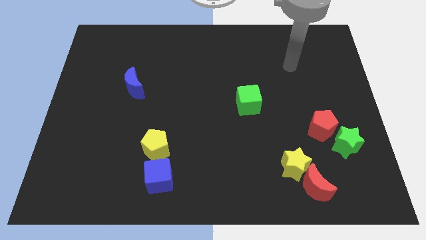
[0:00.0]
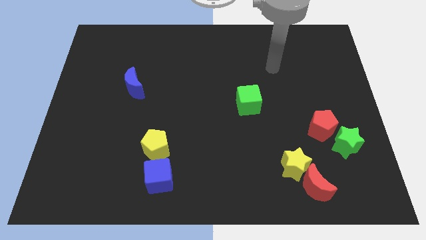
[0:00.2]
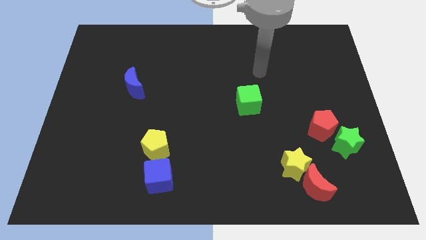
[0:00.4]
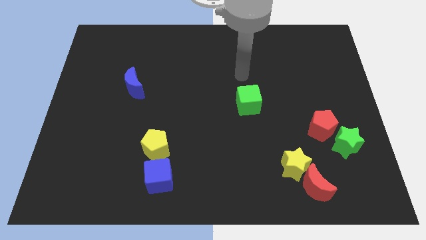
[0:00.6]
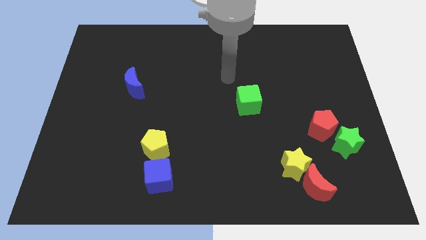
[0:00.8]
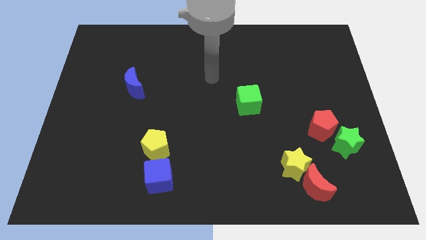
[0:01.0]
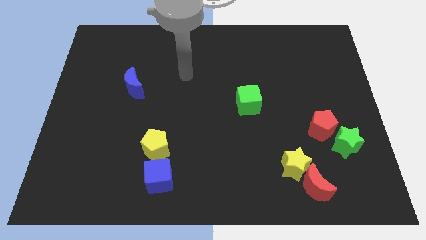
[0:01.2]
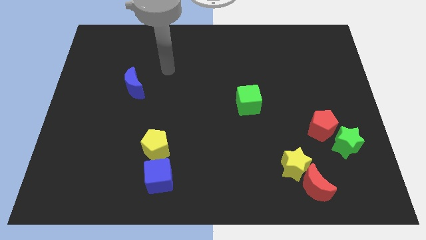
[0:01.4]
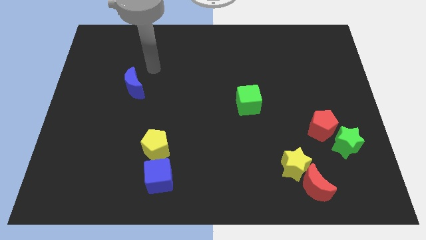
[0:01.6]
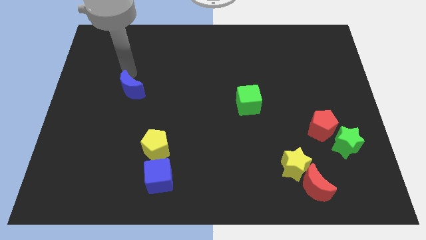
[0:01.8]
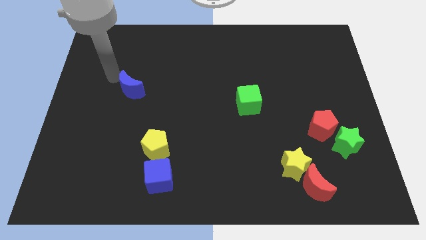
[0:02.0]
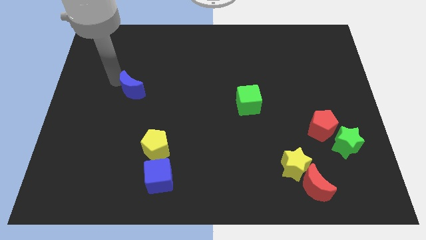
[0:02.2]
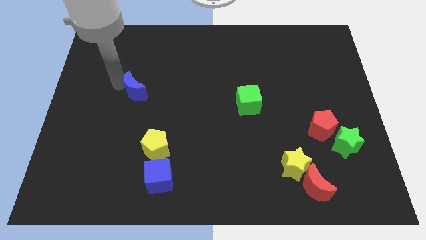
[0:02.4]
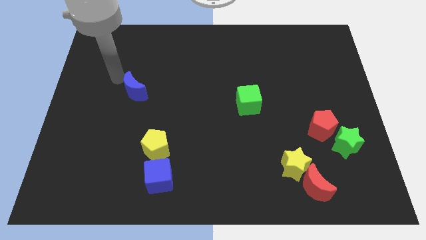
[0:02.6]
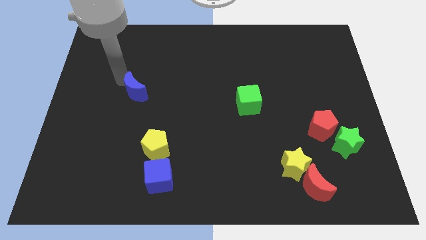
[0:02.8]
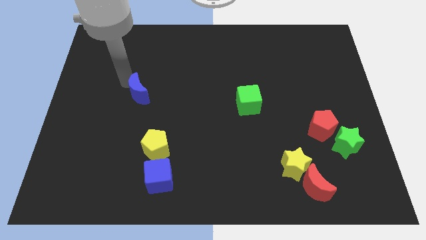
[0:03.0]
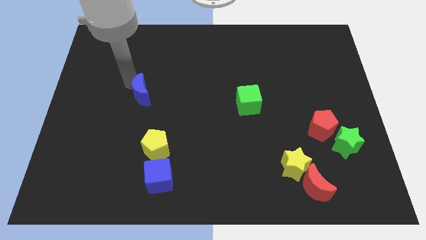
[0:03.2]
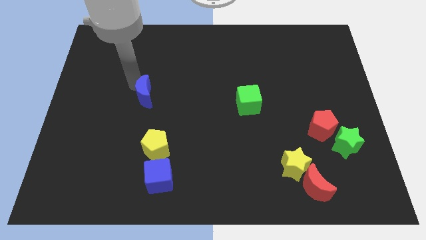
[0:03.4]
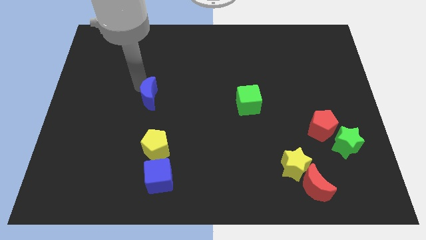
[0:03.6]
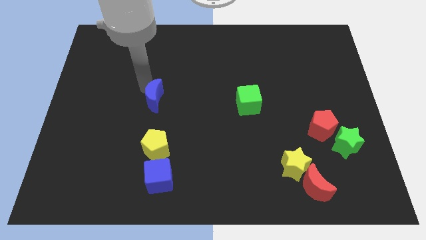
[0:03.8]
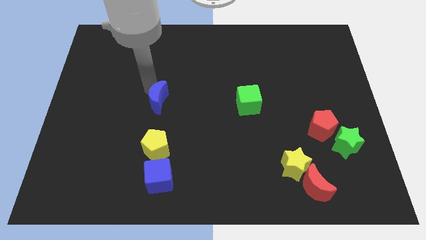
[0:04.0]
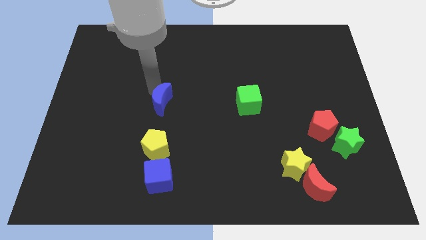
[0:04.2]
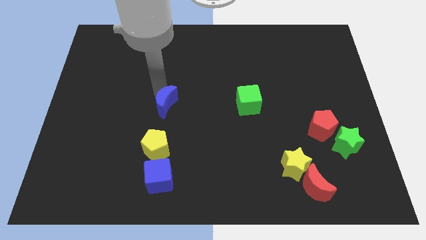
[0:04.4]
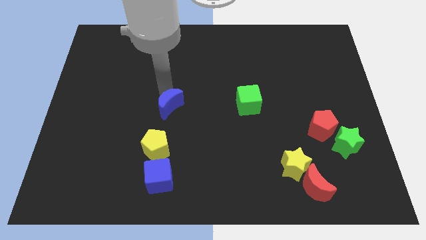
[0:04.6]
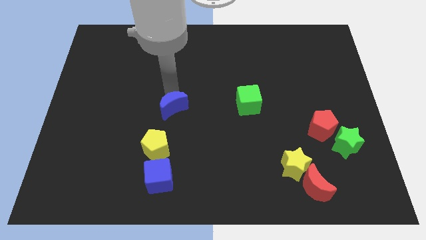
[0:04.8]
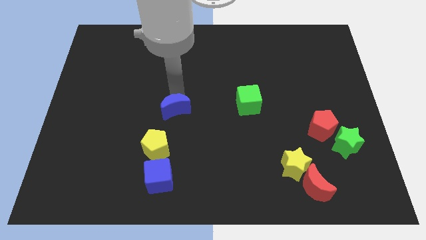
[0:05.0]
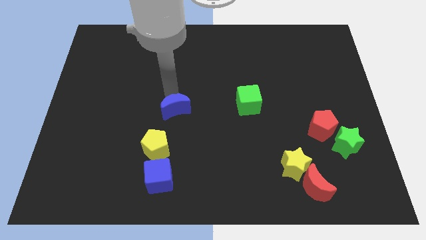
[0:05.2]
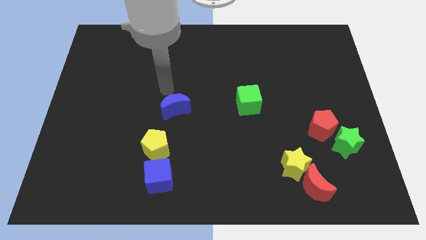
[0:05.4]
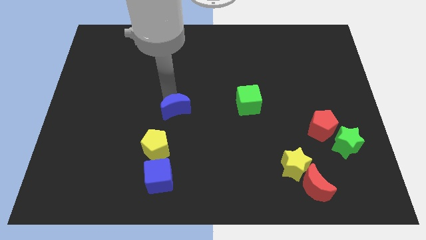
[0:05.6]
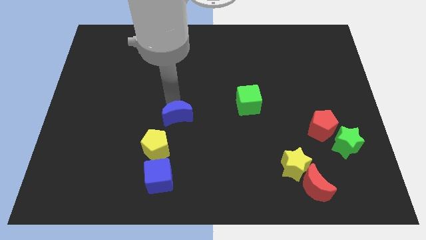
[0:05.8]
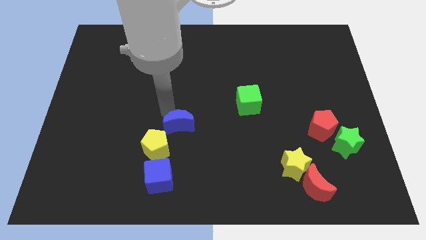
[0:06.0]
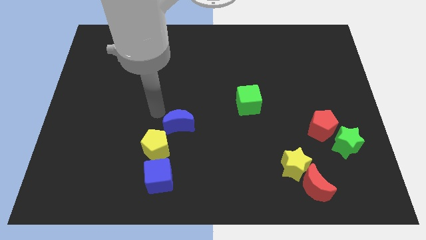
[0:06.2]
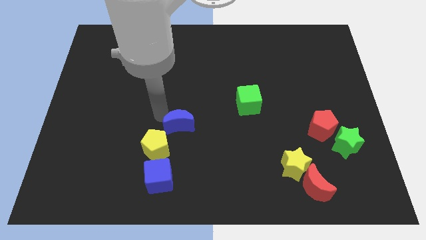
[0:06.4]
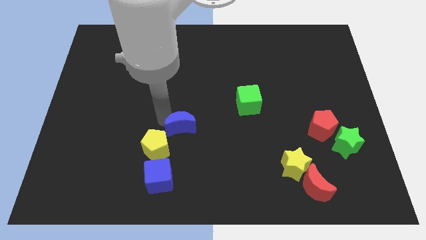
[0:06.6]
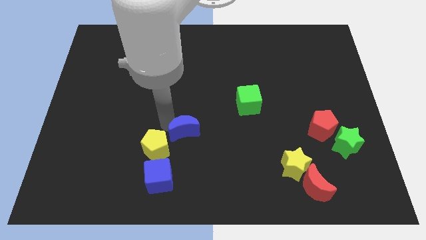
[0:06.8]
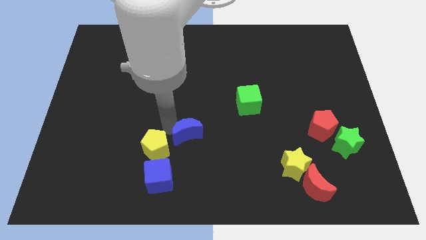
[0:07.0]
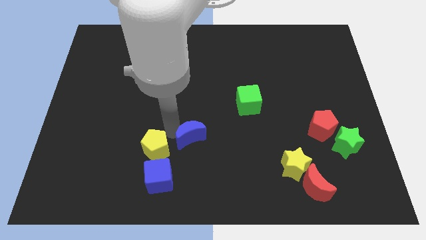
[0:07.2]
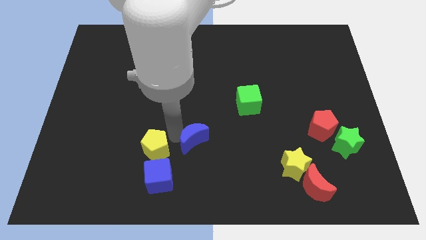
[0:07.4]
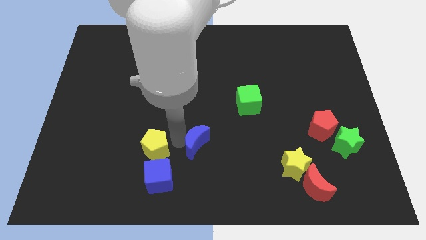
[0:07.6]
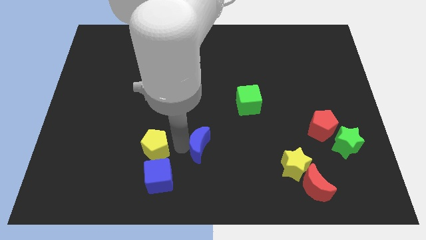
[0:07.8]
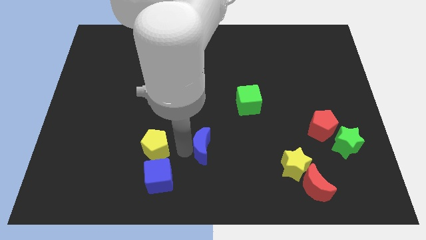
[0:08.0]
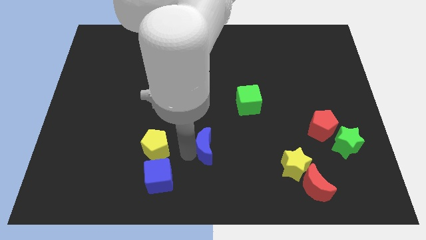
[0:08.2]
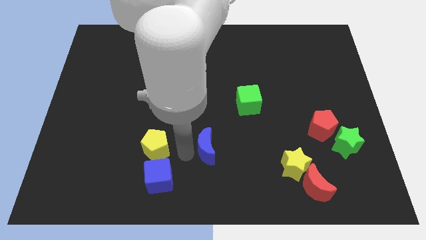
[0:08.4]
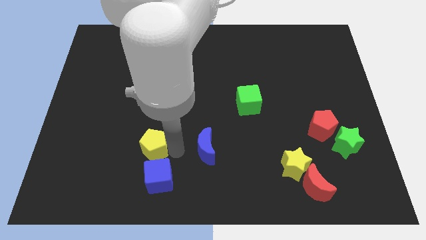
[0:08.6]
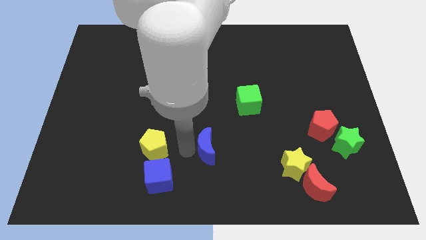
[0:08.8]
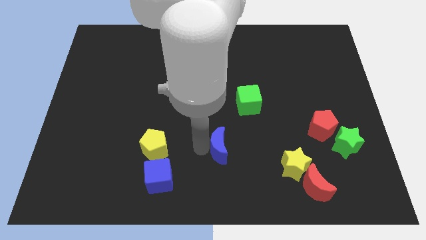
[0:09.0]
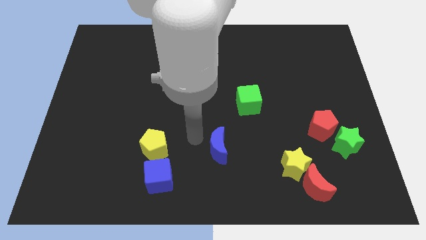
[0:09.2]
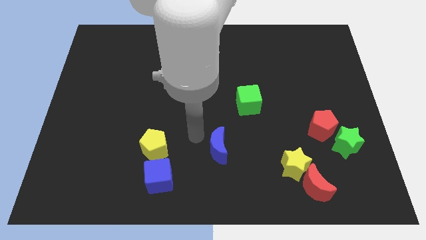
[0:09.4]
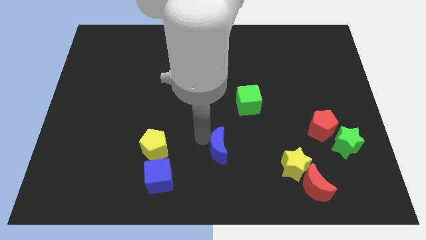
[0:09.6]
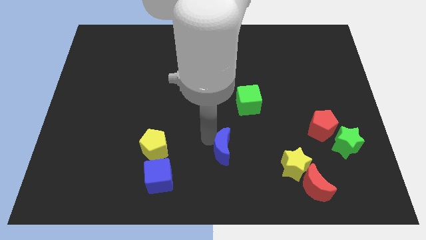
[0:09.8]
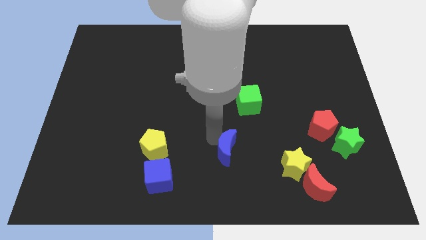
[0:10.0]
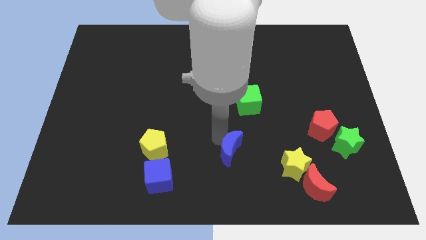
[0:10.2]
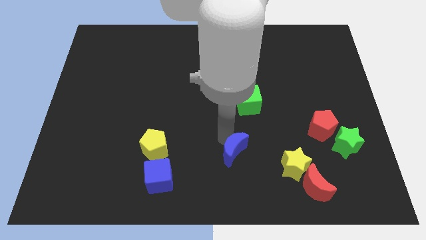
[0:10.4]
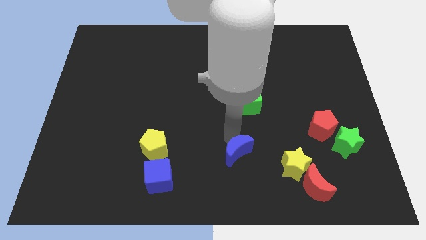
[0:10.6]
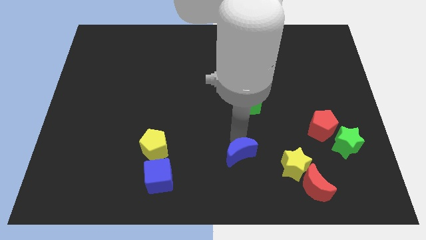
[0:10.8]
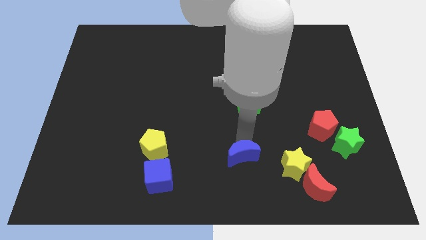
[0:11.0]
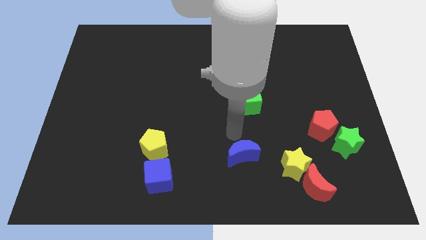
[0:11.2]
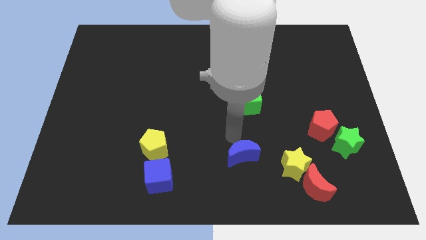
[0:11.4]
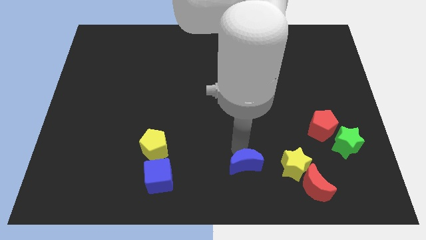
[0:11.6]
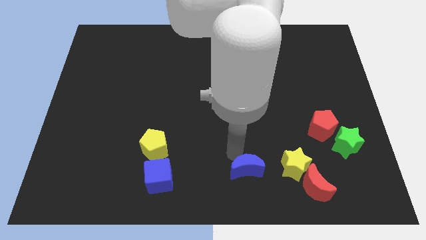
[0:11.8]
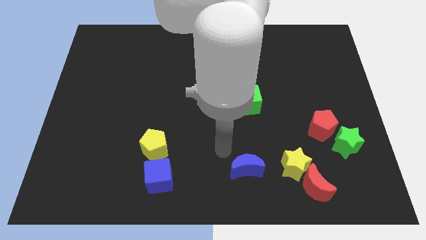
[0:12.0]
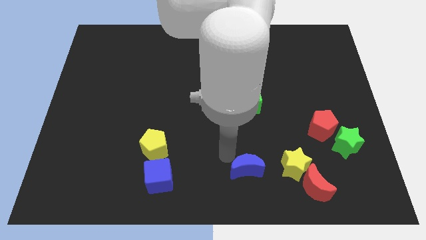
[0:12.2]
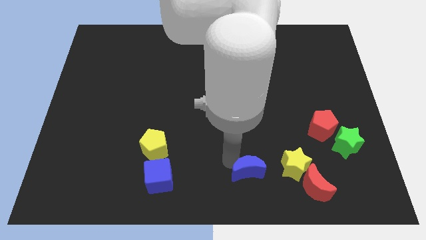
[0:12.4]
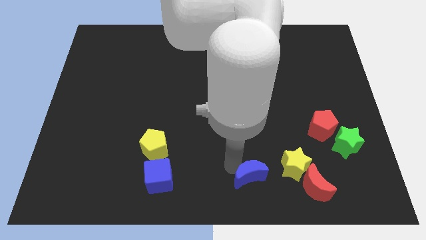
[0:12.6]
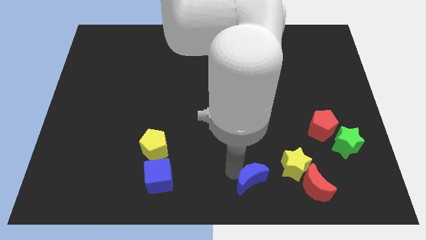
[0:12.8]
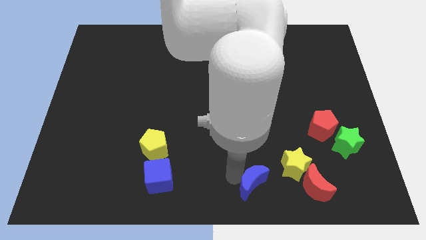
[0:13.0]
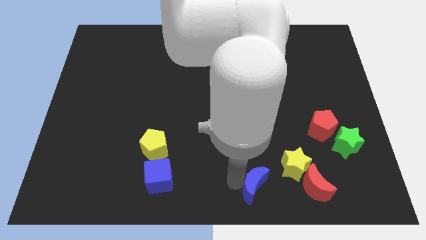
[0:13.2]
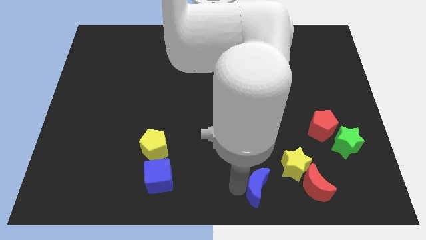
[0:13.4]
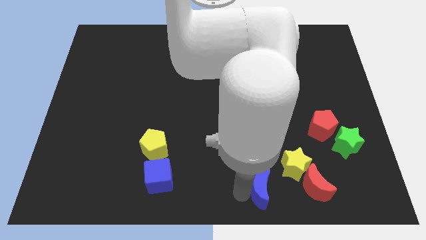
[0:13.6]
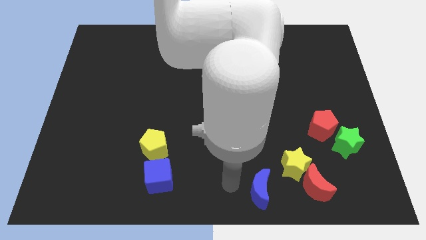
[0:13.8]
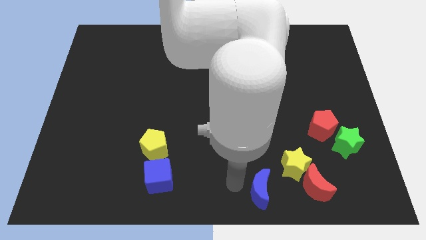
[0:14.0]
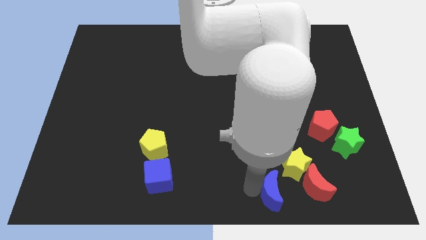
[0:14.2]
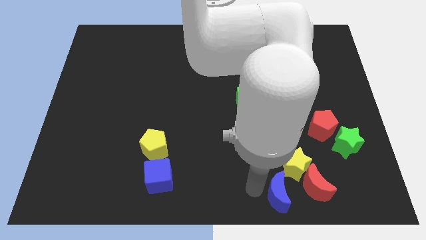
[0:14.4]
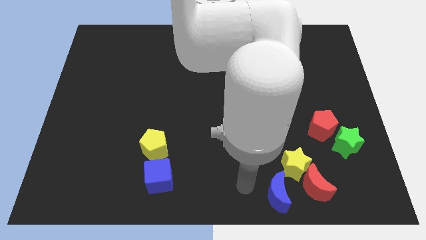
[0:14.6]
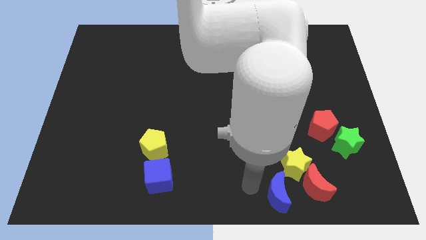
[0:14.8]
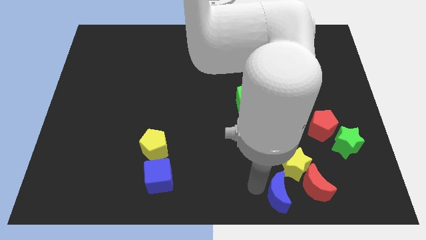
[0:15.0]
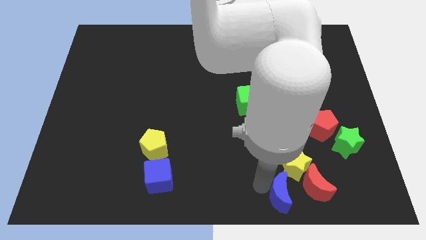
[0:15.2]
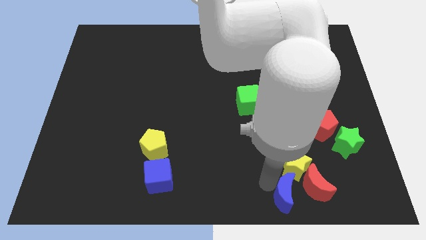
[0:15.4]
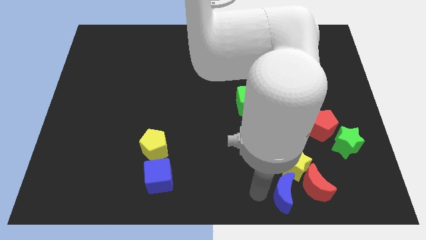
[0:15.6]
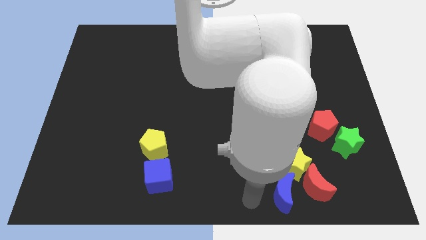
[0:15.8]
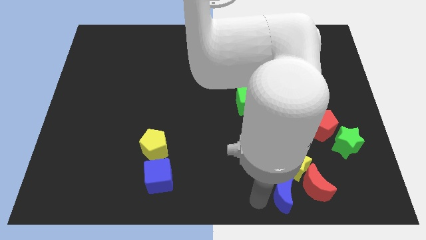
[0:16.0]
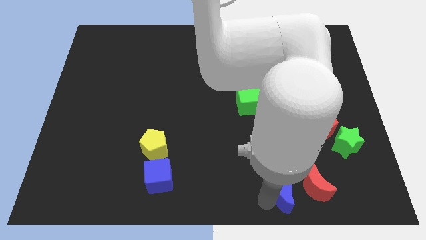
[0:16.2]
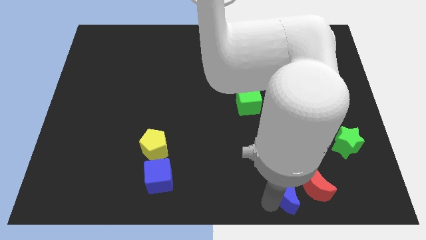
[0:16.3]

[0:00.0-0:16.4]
put the blue moon close to the red moon
